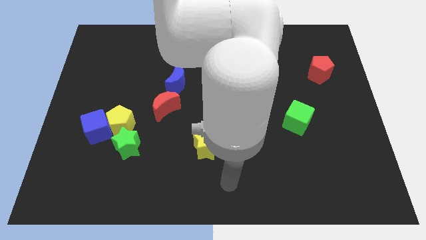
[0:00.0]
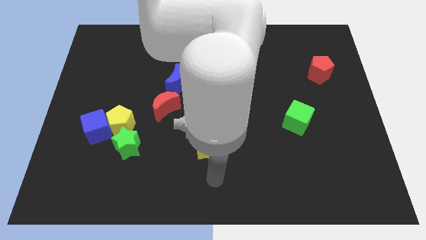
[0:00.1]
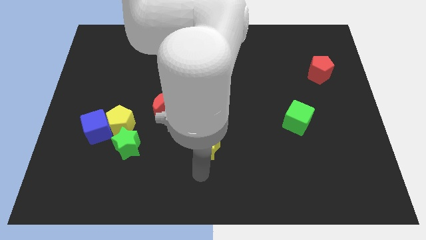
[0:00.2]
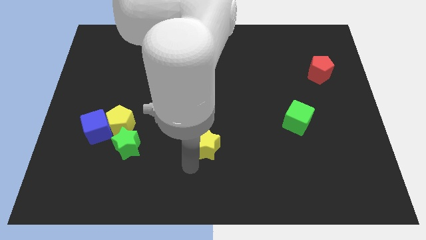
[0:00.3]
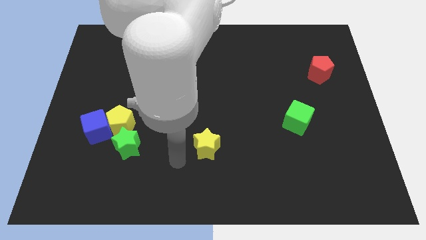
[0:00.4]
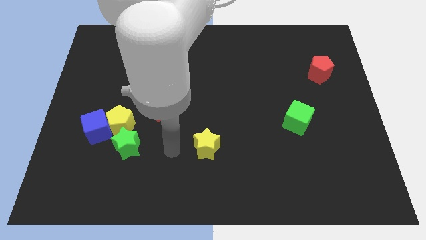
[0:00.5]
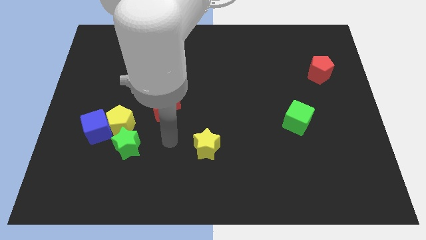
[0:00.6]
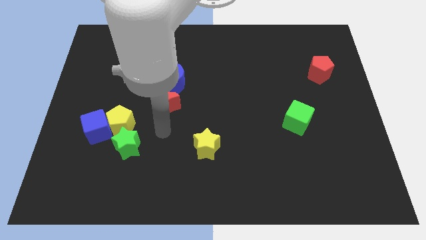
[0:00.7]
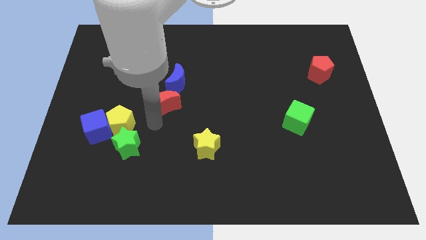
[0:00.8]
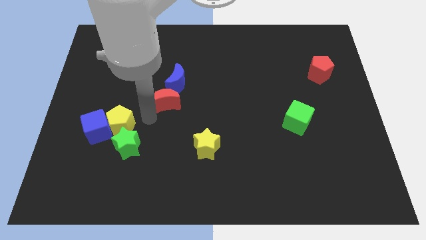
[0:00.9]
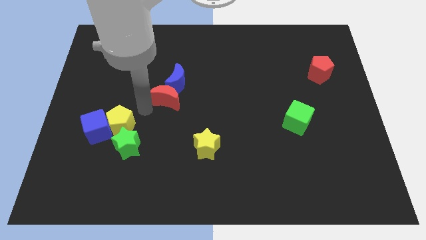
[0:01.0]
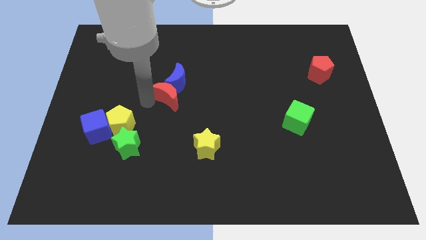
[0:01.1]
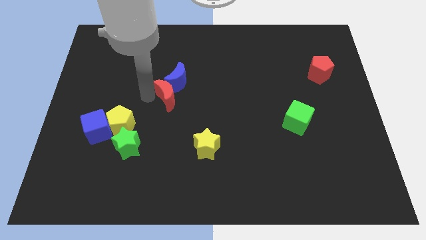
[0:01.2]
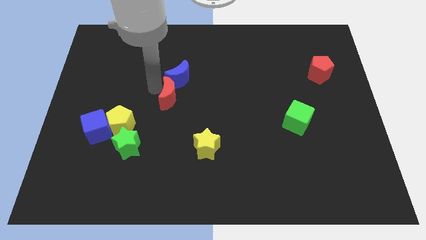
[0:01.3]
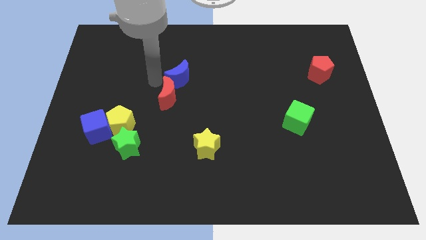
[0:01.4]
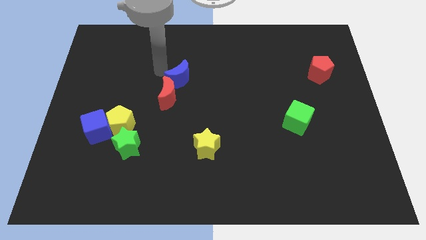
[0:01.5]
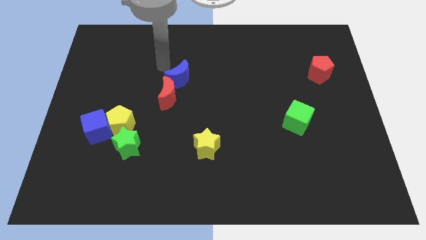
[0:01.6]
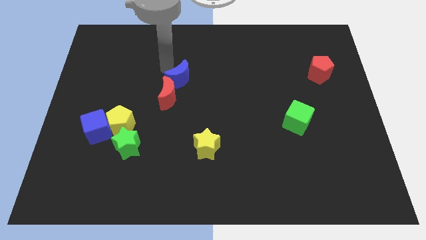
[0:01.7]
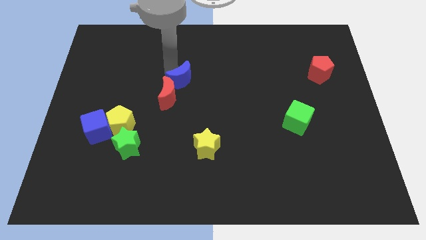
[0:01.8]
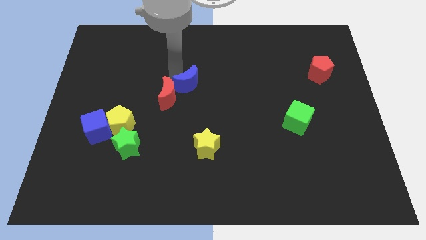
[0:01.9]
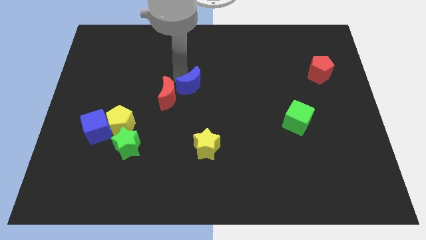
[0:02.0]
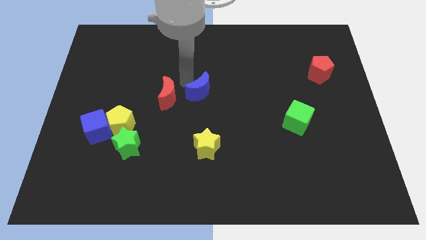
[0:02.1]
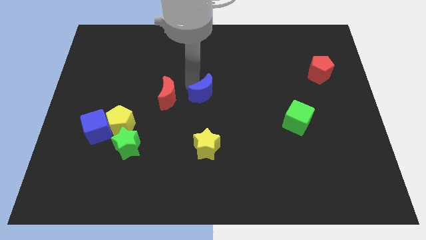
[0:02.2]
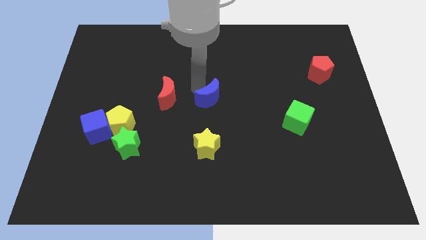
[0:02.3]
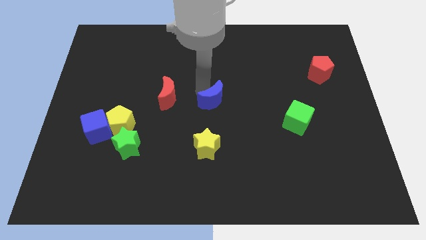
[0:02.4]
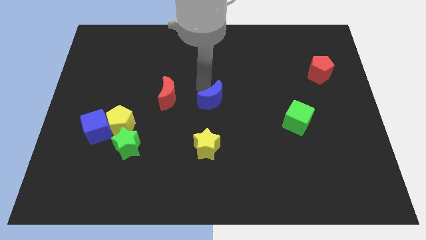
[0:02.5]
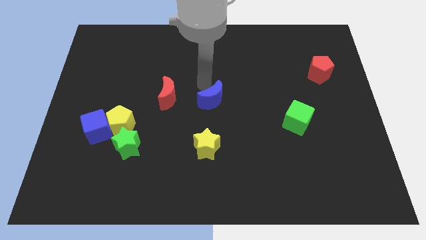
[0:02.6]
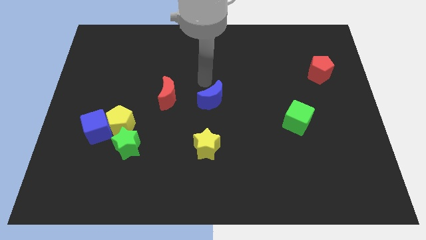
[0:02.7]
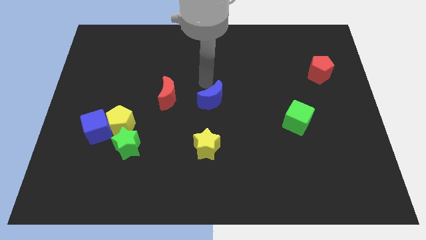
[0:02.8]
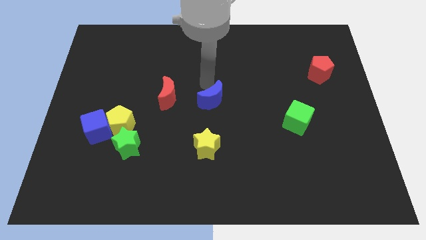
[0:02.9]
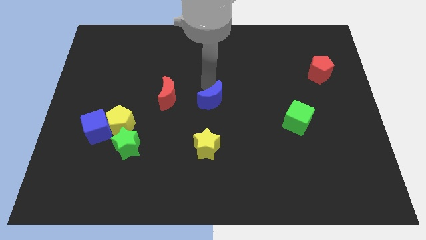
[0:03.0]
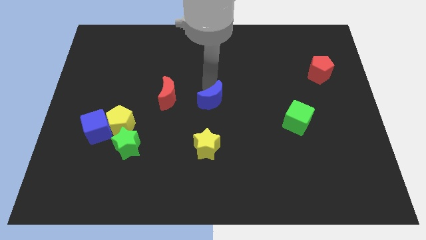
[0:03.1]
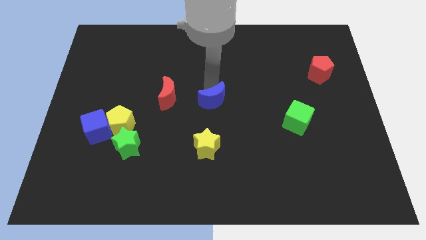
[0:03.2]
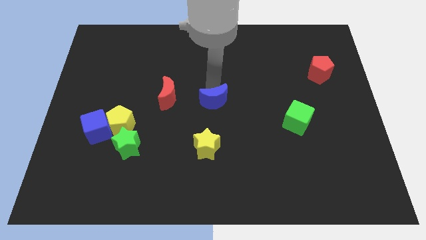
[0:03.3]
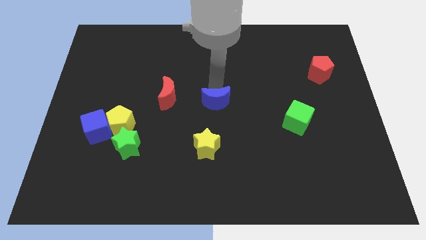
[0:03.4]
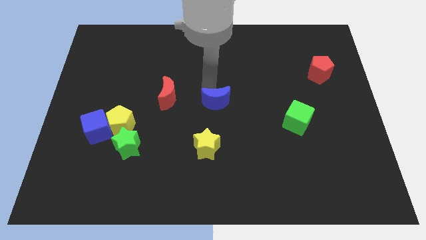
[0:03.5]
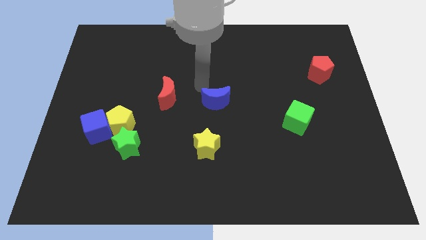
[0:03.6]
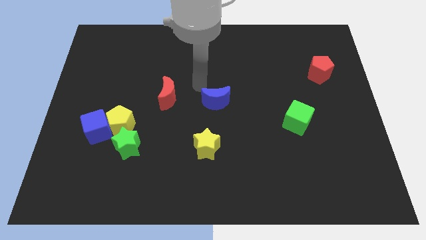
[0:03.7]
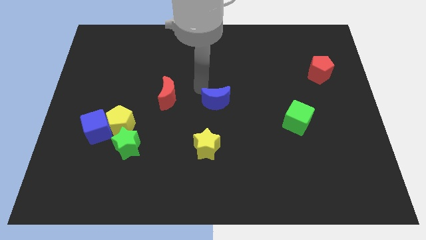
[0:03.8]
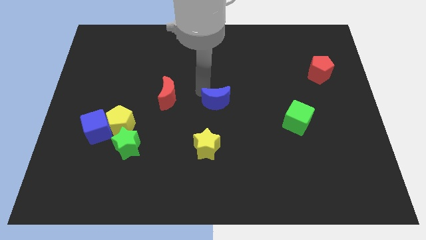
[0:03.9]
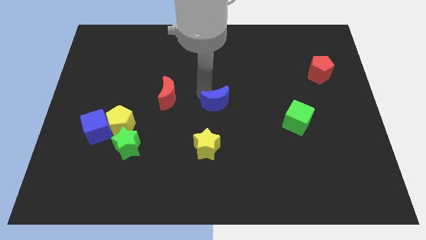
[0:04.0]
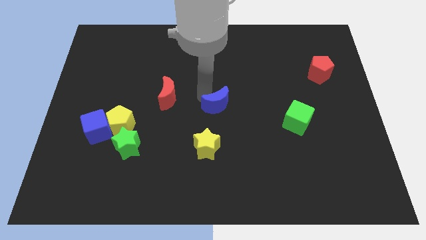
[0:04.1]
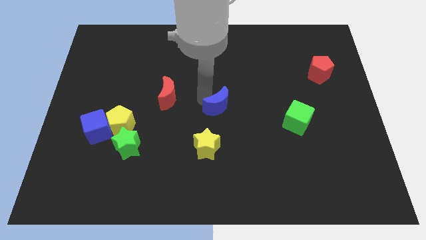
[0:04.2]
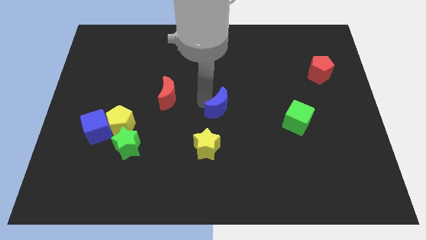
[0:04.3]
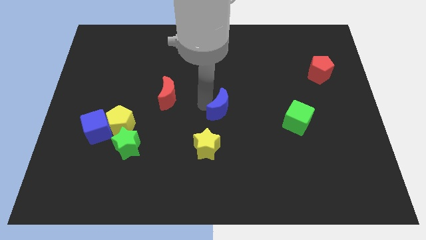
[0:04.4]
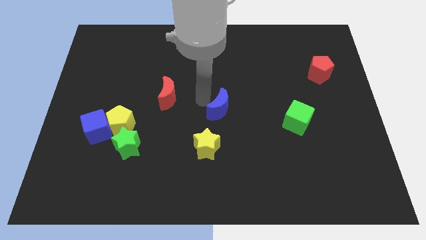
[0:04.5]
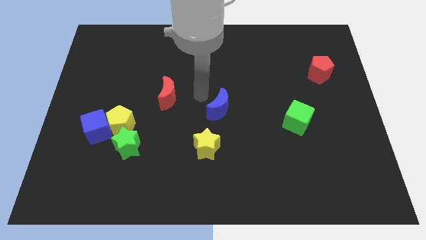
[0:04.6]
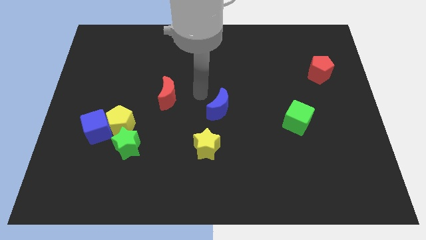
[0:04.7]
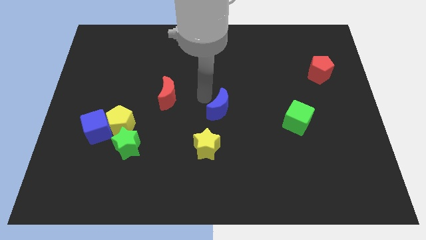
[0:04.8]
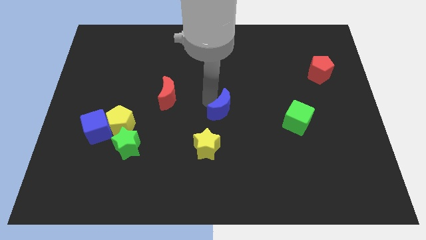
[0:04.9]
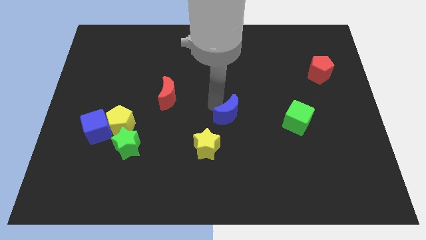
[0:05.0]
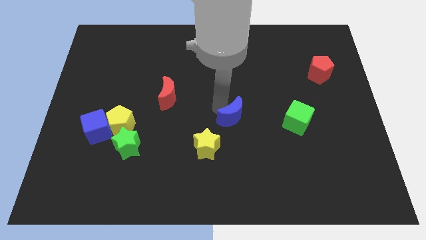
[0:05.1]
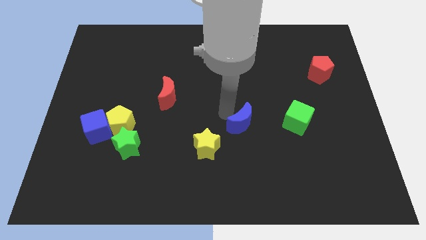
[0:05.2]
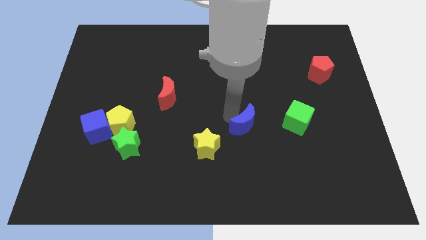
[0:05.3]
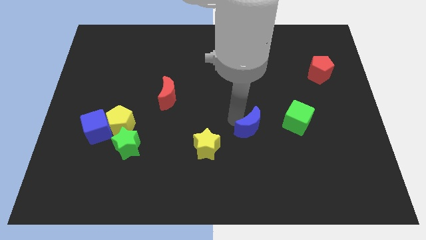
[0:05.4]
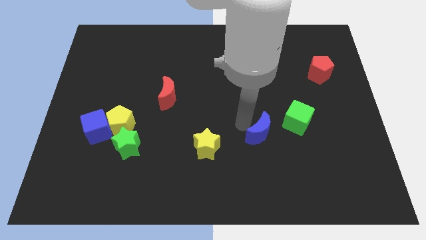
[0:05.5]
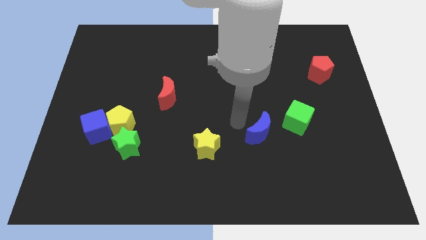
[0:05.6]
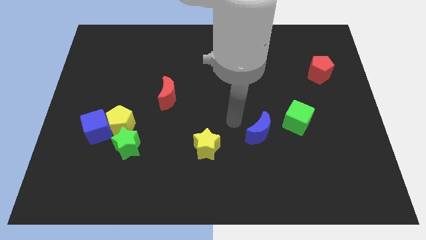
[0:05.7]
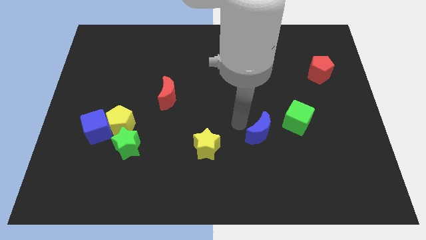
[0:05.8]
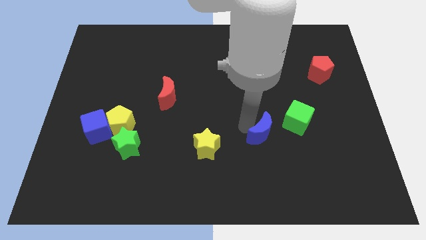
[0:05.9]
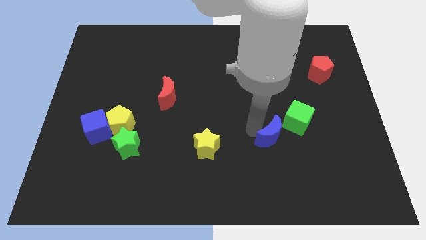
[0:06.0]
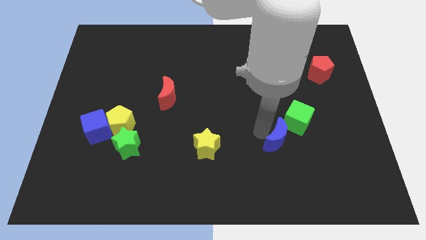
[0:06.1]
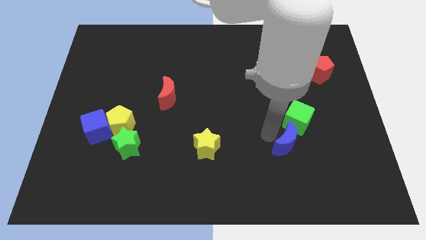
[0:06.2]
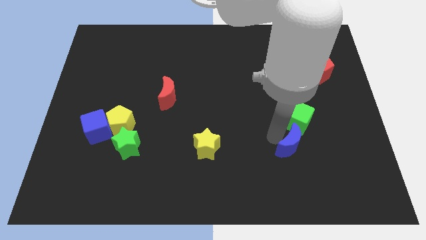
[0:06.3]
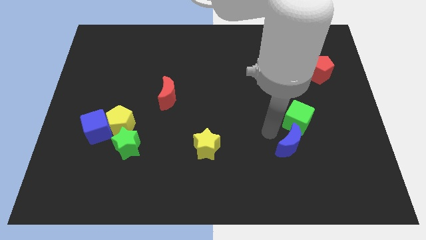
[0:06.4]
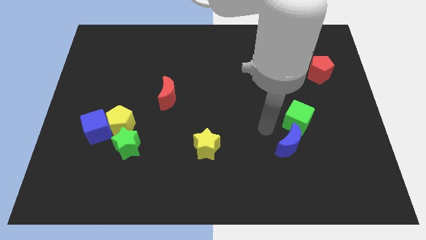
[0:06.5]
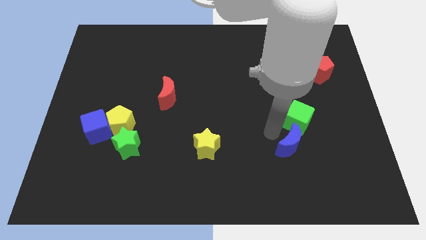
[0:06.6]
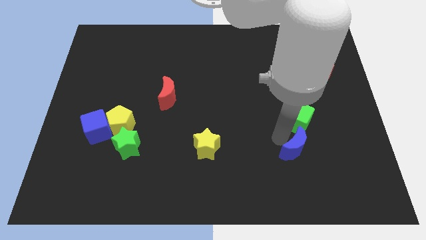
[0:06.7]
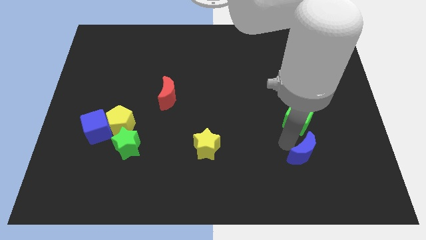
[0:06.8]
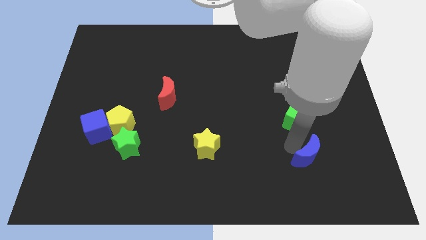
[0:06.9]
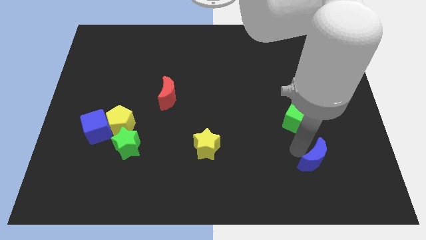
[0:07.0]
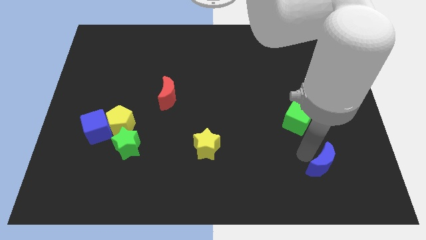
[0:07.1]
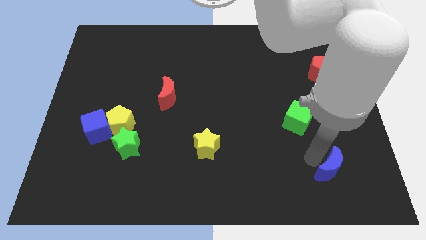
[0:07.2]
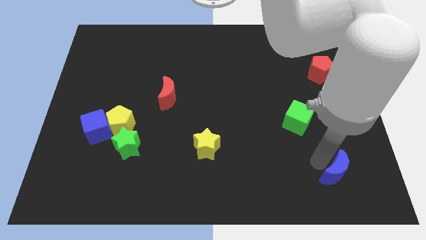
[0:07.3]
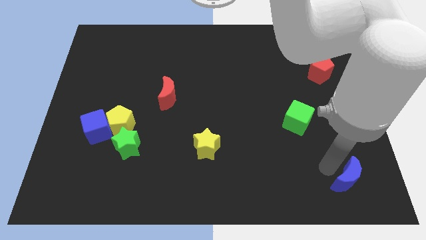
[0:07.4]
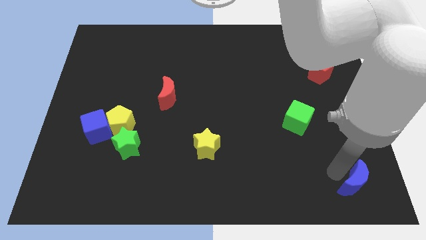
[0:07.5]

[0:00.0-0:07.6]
slide the blue moon to the bottom right of the board
